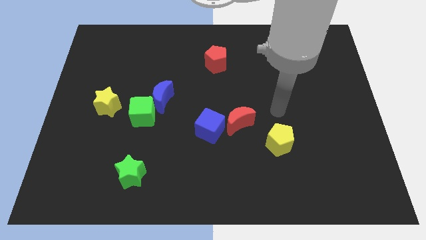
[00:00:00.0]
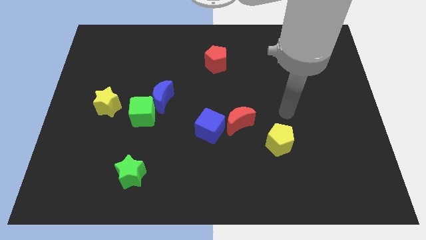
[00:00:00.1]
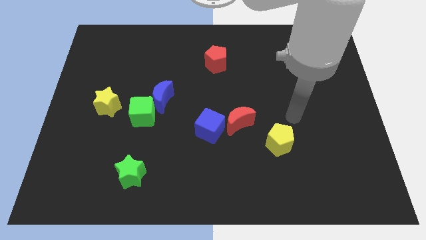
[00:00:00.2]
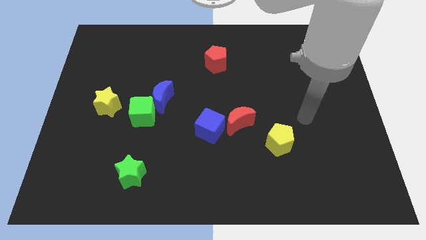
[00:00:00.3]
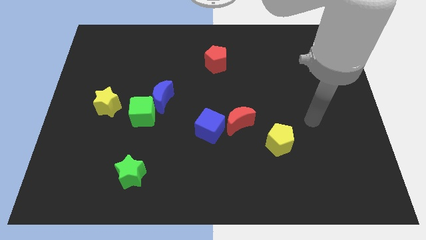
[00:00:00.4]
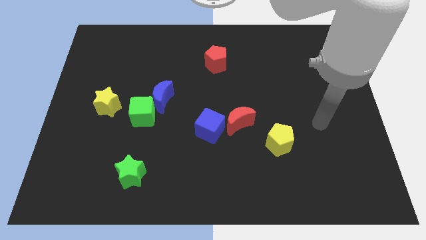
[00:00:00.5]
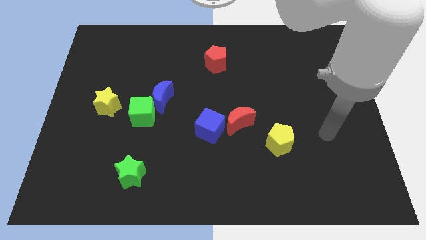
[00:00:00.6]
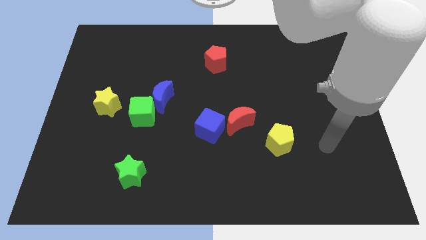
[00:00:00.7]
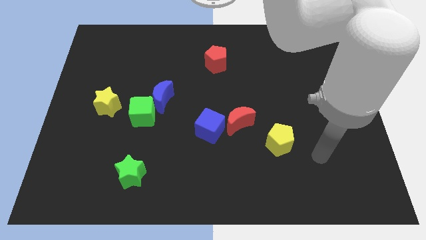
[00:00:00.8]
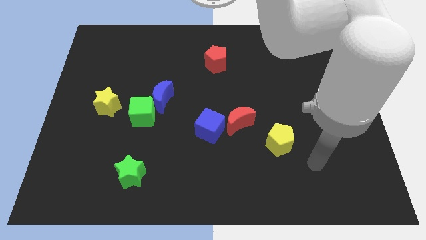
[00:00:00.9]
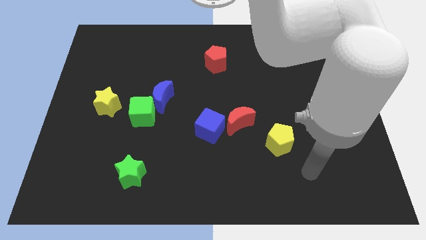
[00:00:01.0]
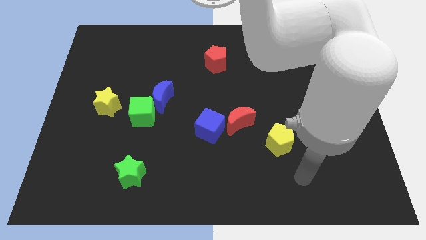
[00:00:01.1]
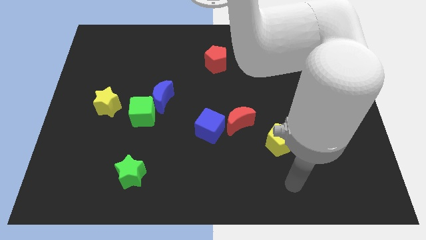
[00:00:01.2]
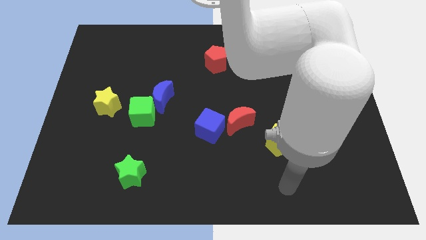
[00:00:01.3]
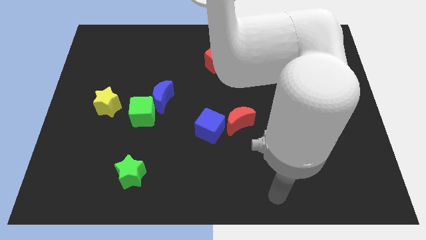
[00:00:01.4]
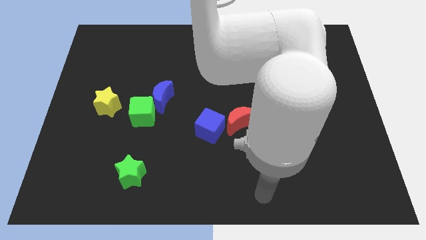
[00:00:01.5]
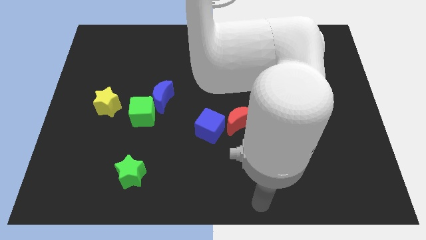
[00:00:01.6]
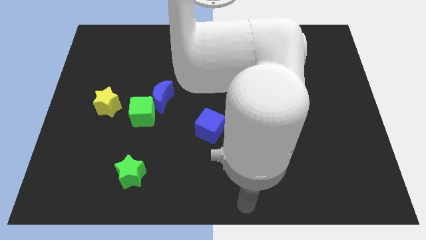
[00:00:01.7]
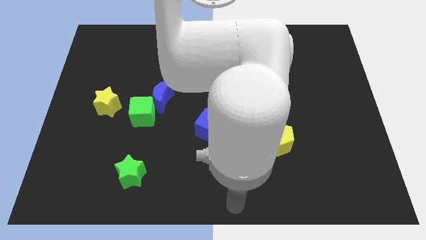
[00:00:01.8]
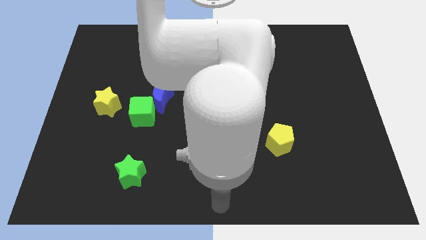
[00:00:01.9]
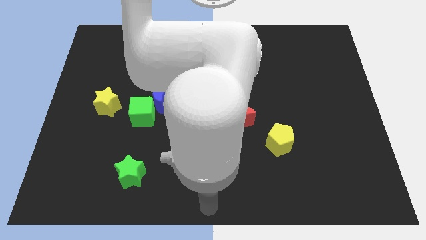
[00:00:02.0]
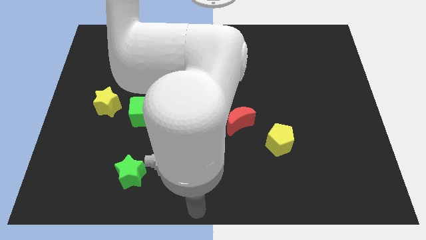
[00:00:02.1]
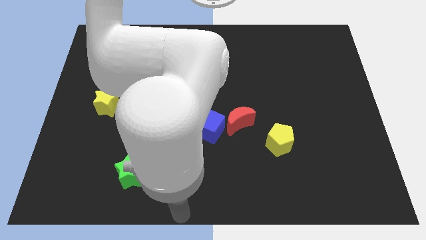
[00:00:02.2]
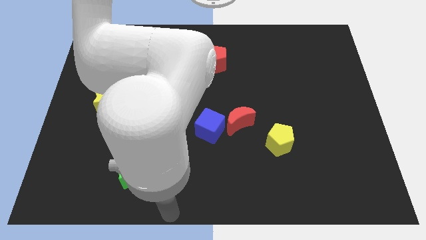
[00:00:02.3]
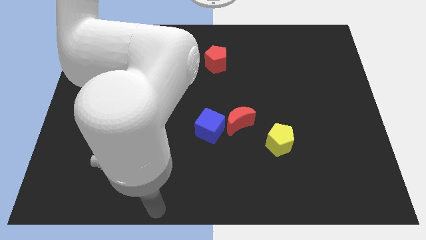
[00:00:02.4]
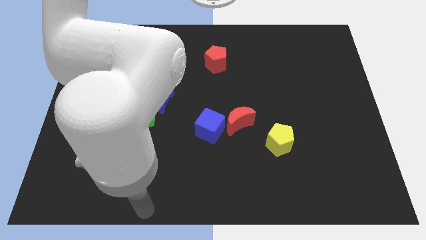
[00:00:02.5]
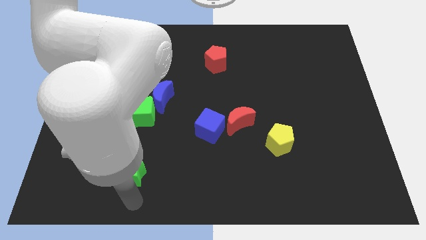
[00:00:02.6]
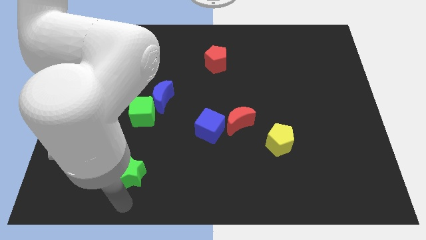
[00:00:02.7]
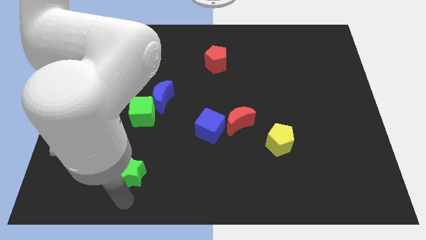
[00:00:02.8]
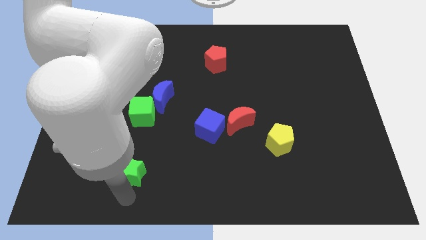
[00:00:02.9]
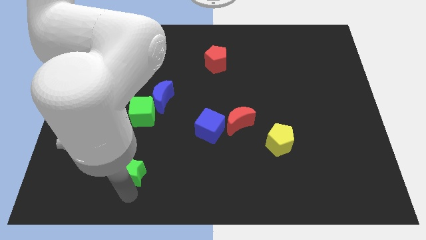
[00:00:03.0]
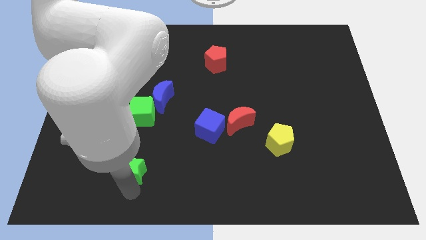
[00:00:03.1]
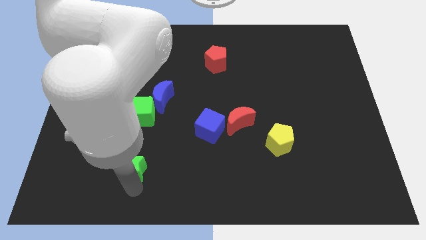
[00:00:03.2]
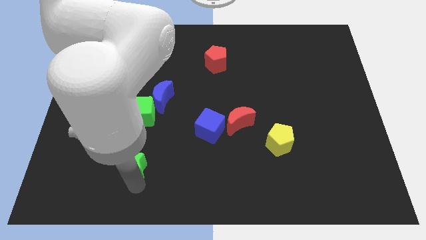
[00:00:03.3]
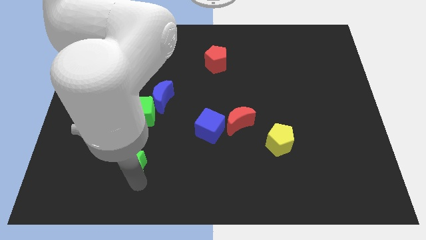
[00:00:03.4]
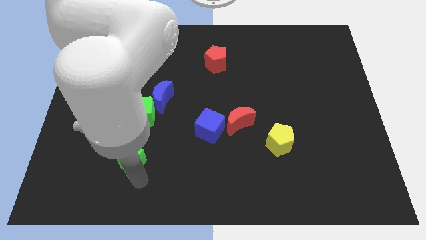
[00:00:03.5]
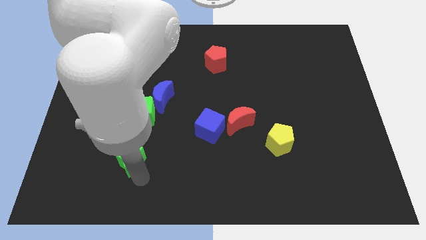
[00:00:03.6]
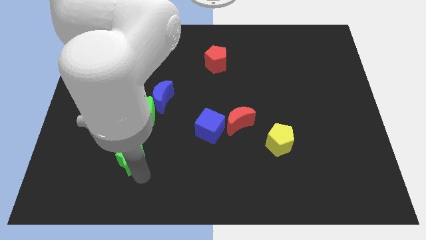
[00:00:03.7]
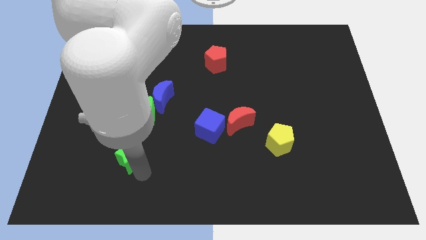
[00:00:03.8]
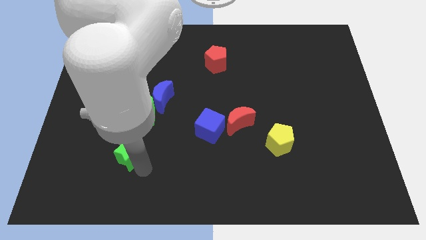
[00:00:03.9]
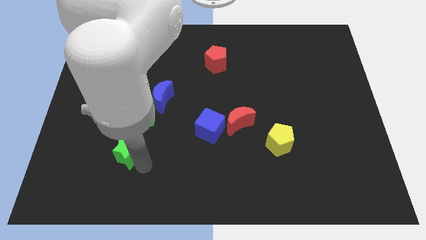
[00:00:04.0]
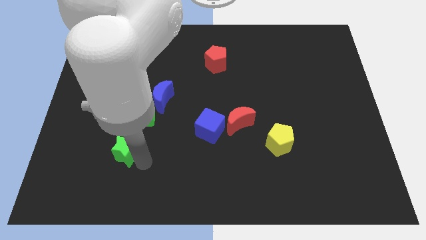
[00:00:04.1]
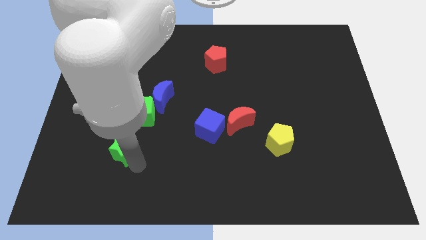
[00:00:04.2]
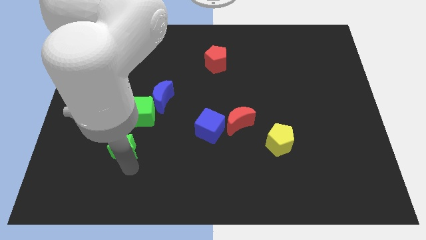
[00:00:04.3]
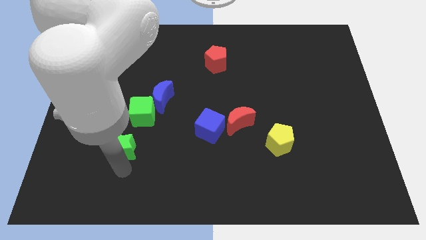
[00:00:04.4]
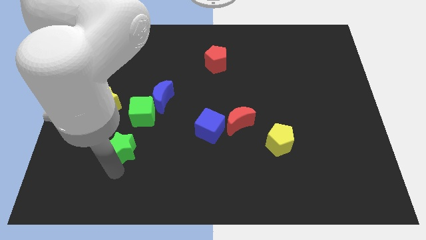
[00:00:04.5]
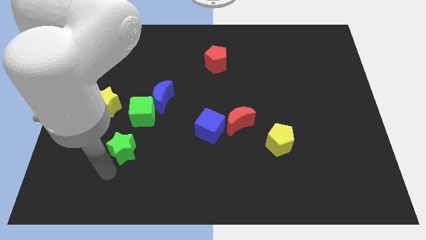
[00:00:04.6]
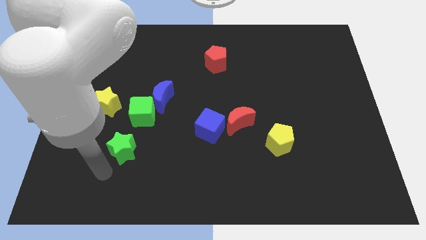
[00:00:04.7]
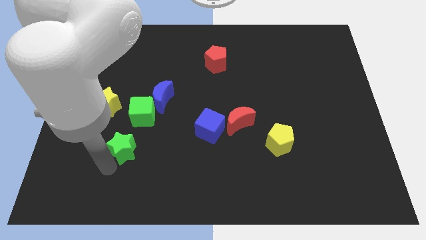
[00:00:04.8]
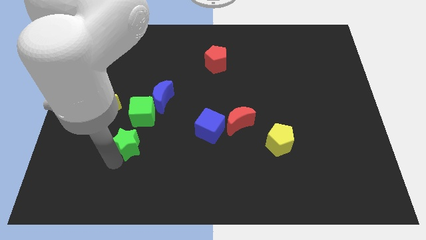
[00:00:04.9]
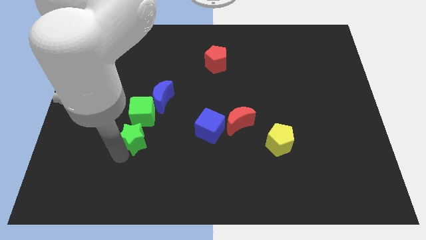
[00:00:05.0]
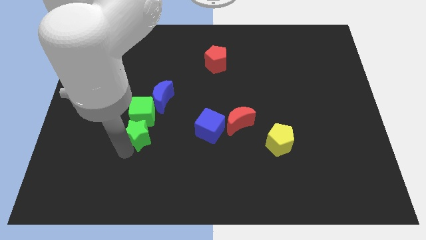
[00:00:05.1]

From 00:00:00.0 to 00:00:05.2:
put the green star close to the green cube

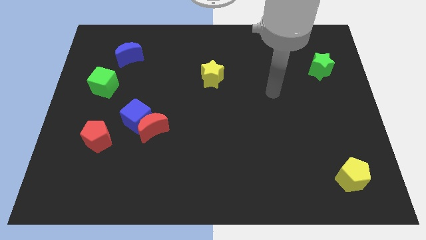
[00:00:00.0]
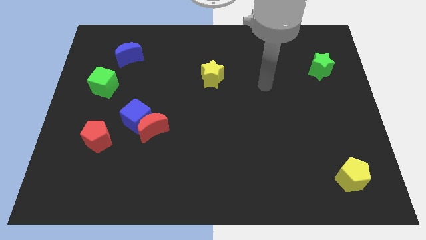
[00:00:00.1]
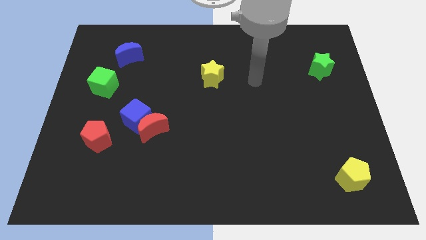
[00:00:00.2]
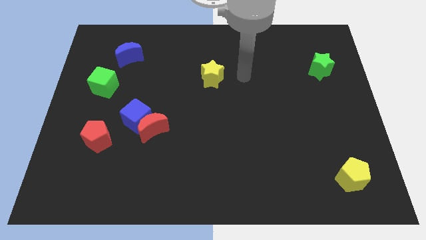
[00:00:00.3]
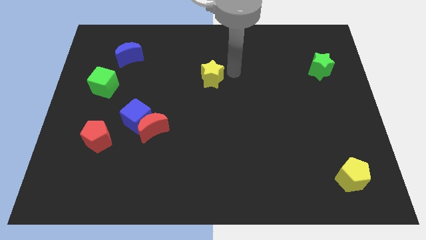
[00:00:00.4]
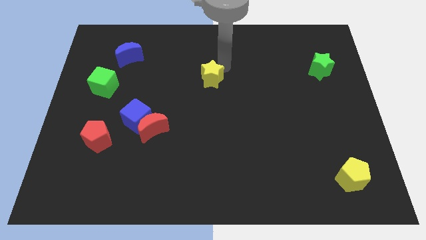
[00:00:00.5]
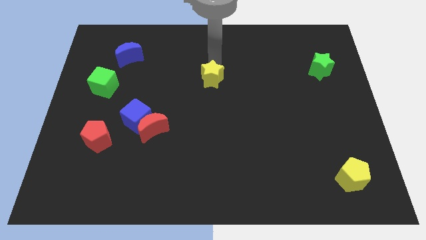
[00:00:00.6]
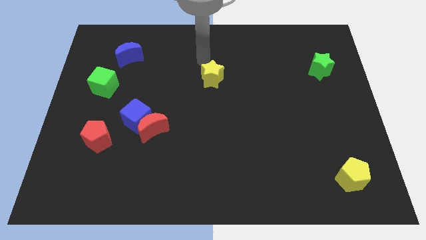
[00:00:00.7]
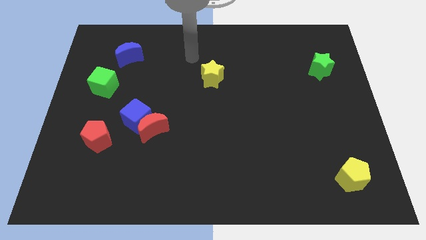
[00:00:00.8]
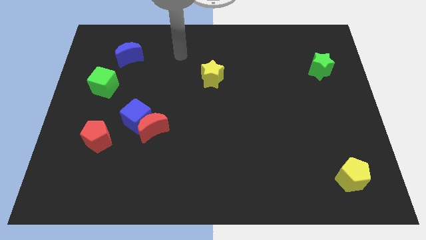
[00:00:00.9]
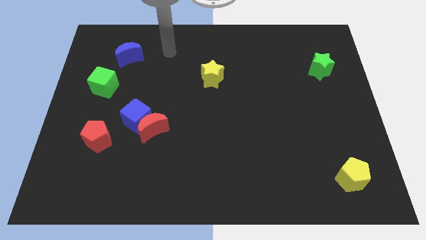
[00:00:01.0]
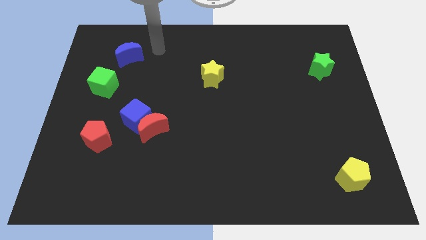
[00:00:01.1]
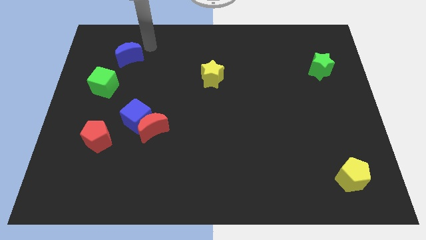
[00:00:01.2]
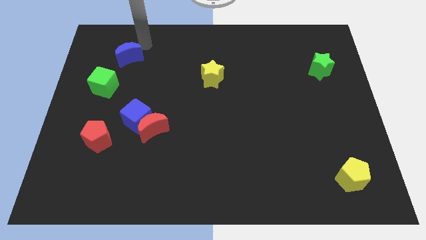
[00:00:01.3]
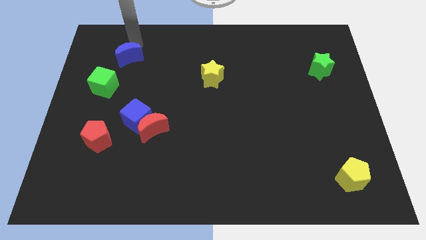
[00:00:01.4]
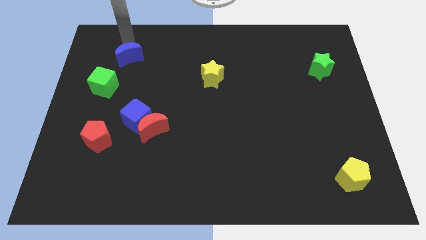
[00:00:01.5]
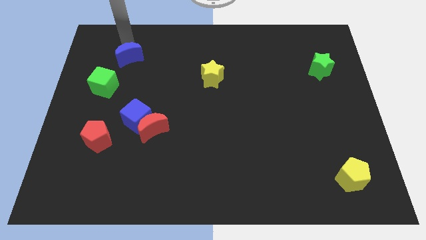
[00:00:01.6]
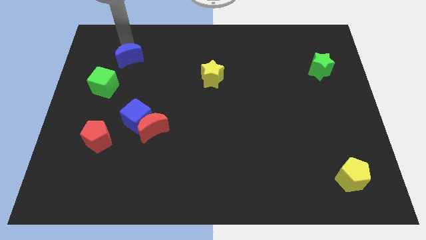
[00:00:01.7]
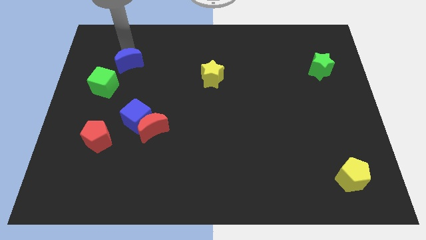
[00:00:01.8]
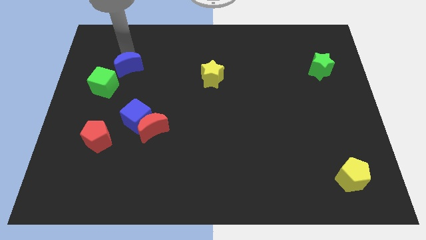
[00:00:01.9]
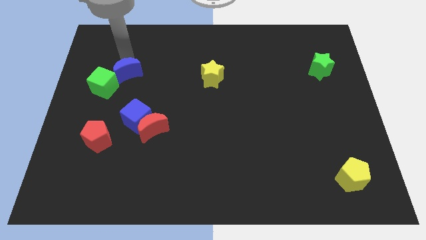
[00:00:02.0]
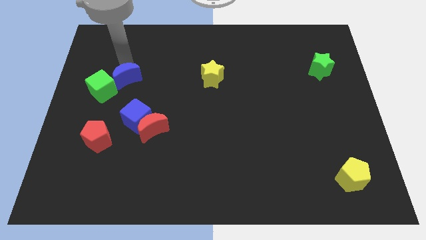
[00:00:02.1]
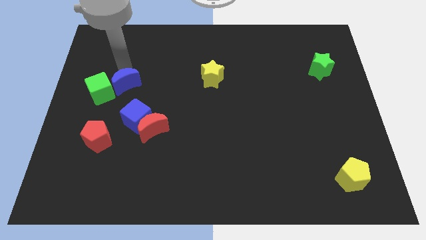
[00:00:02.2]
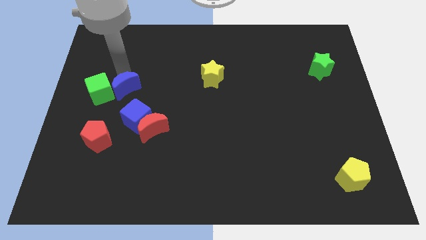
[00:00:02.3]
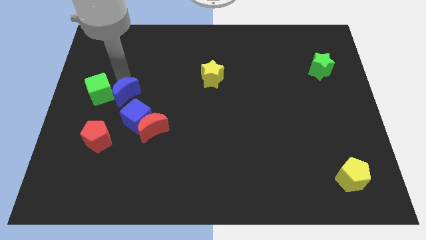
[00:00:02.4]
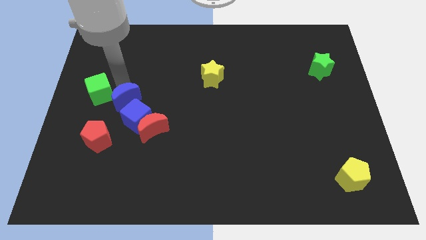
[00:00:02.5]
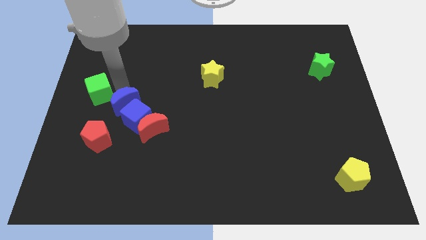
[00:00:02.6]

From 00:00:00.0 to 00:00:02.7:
slide the blue moon towards the blue cube
